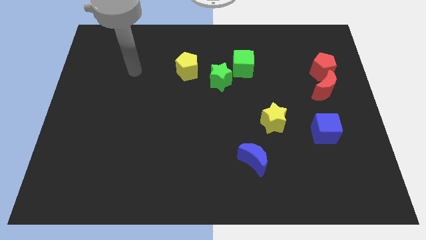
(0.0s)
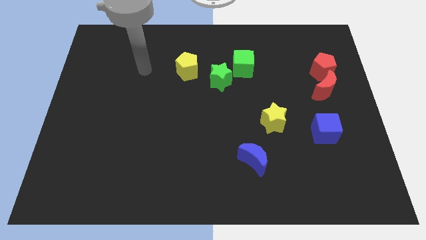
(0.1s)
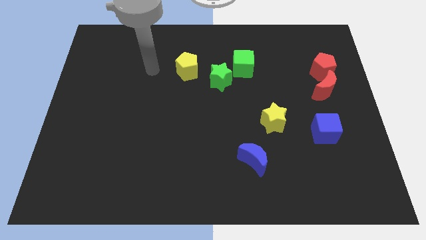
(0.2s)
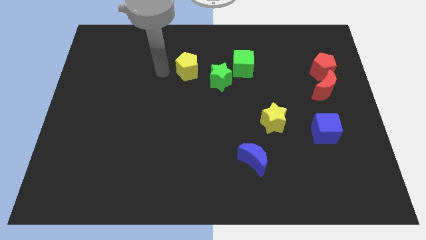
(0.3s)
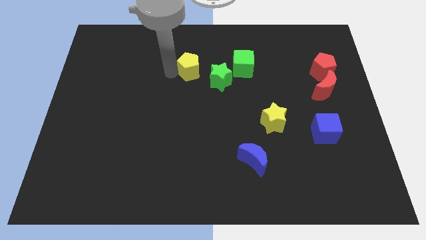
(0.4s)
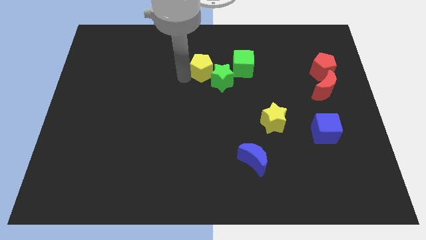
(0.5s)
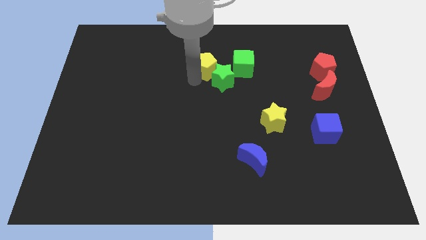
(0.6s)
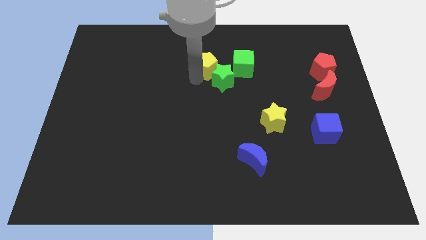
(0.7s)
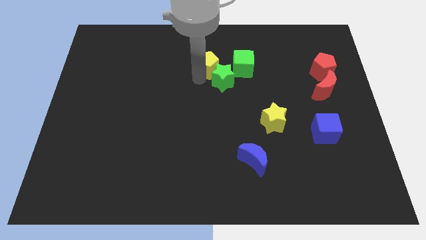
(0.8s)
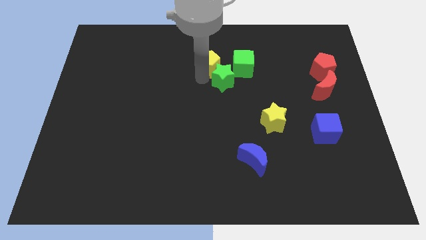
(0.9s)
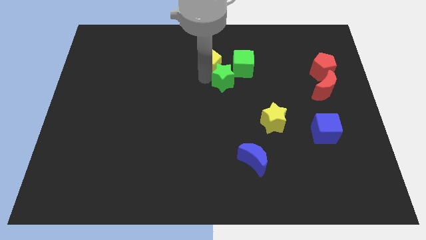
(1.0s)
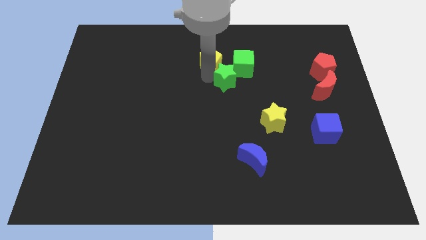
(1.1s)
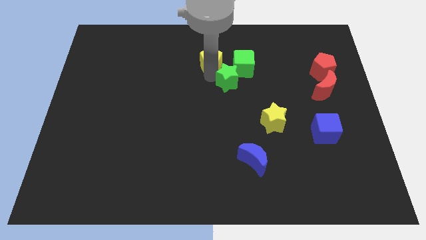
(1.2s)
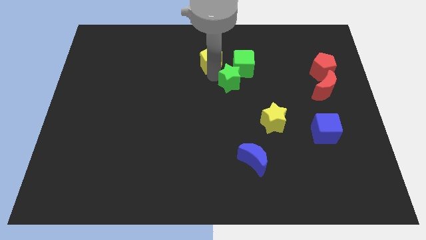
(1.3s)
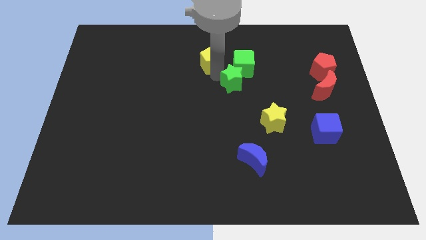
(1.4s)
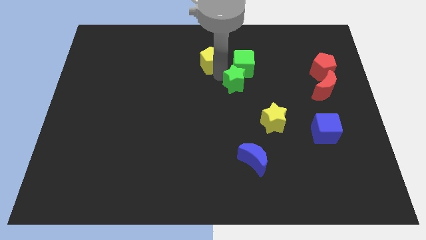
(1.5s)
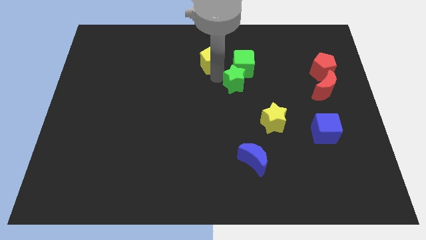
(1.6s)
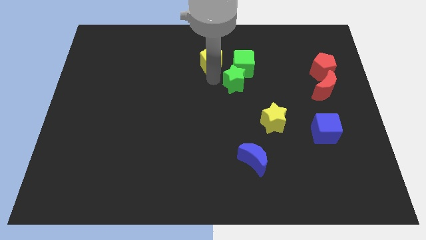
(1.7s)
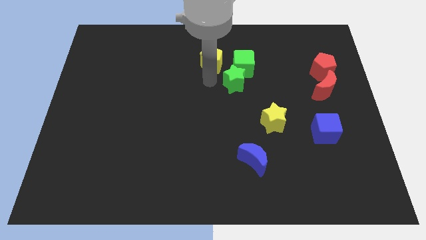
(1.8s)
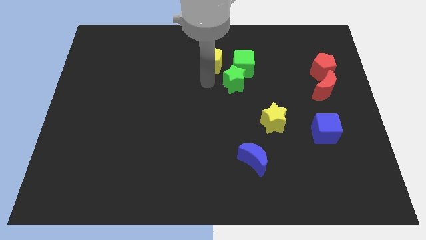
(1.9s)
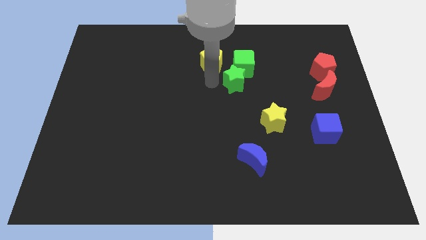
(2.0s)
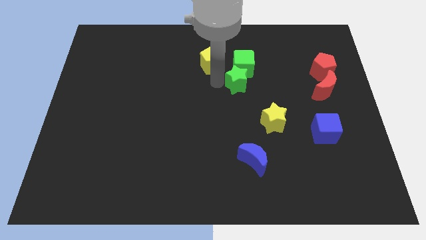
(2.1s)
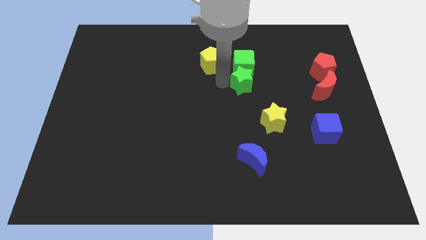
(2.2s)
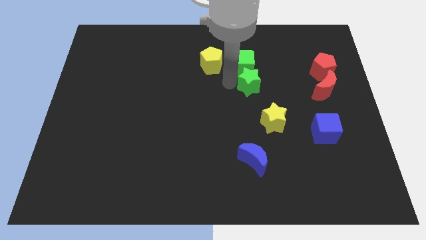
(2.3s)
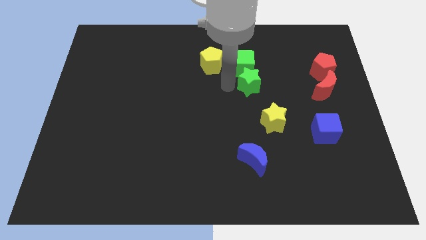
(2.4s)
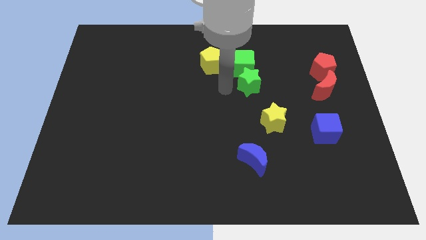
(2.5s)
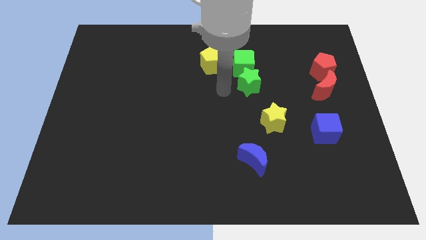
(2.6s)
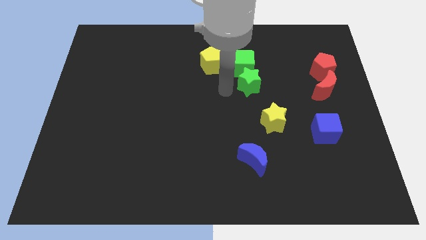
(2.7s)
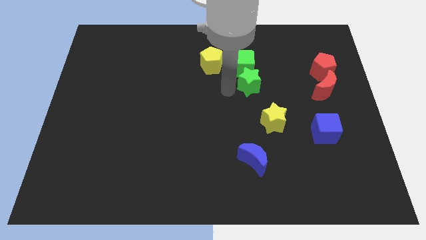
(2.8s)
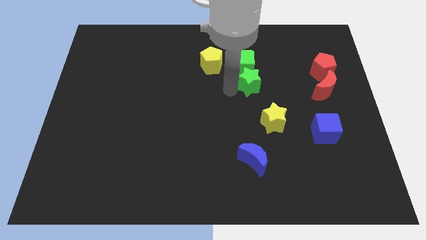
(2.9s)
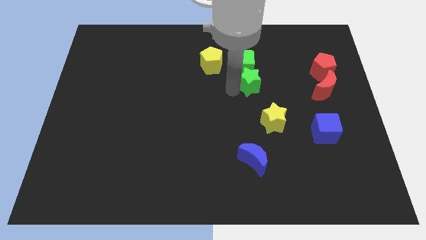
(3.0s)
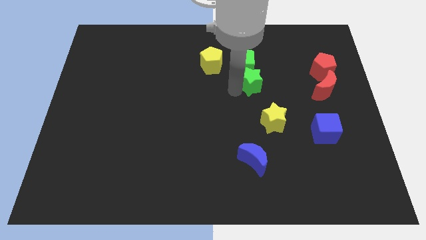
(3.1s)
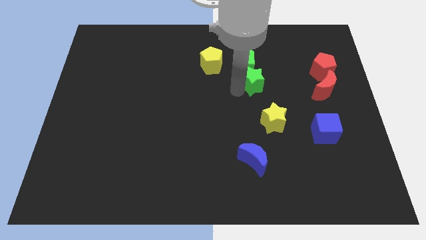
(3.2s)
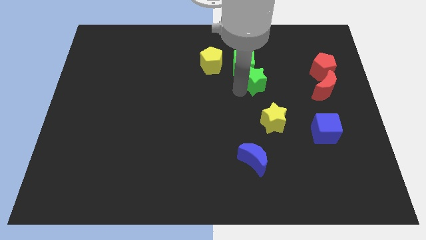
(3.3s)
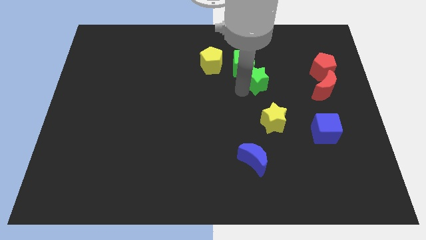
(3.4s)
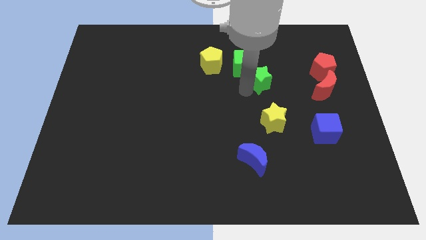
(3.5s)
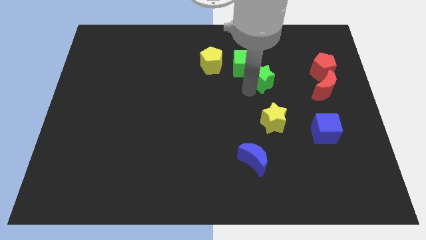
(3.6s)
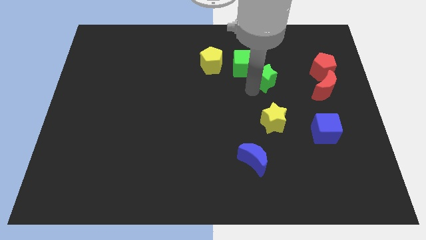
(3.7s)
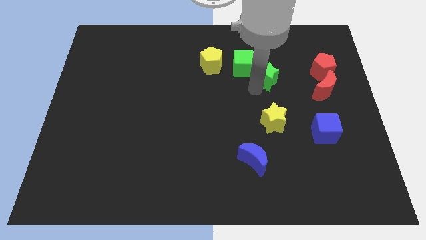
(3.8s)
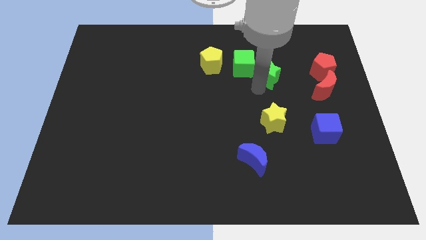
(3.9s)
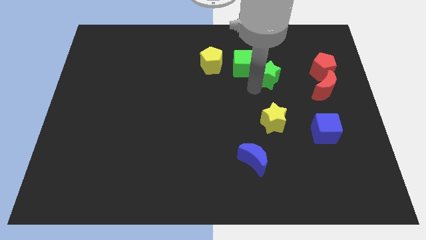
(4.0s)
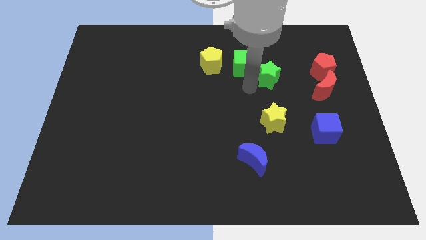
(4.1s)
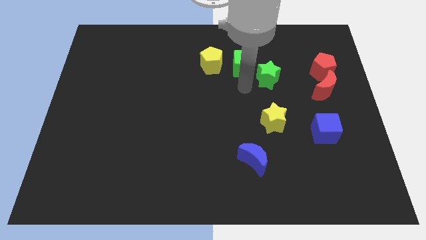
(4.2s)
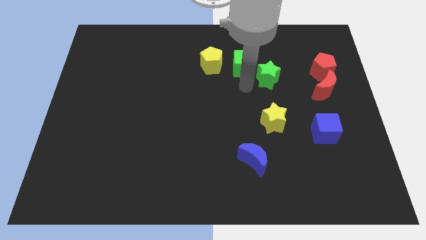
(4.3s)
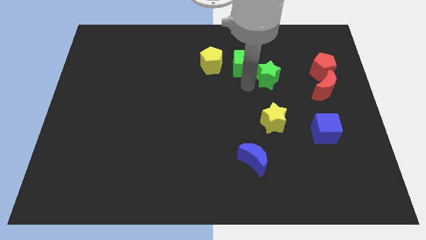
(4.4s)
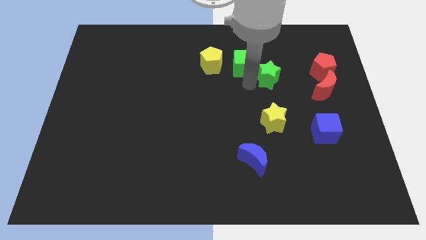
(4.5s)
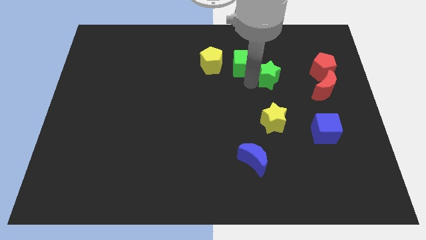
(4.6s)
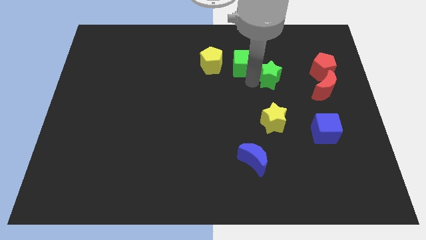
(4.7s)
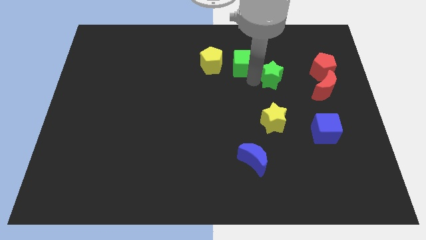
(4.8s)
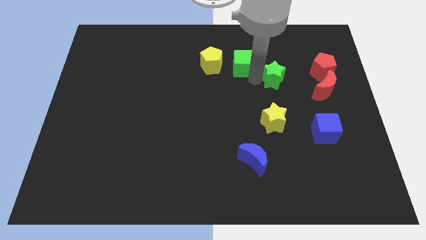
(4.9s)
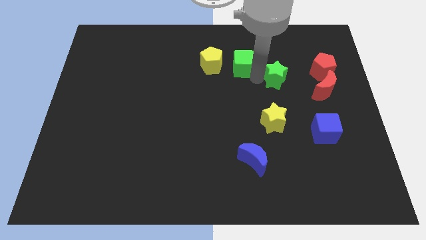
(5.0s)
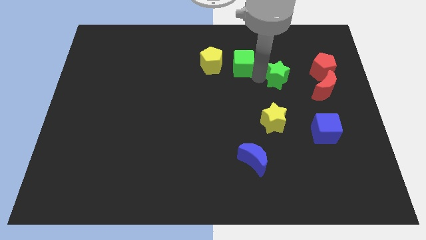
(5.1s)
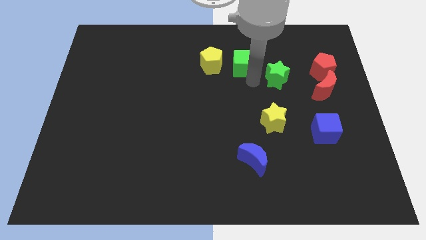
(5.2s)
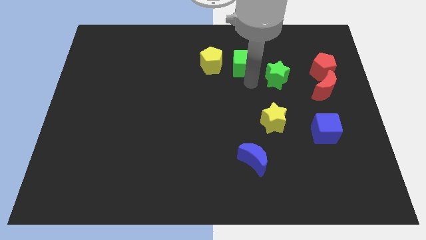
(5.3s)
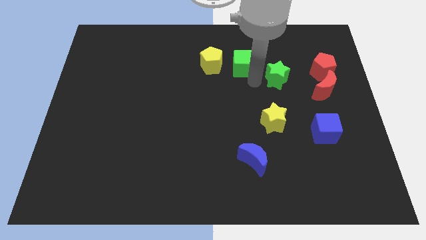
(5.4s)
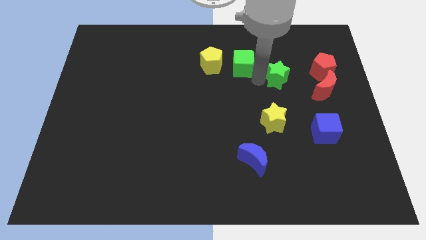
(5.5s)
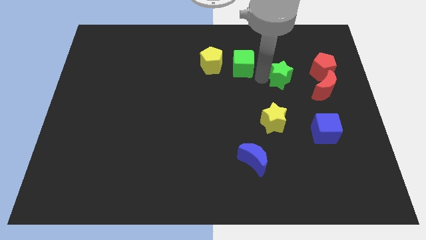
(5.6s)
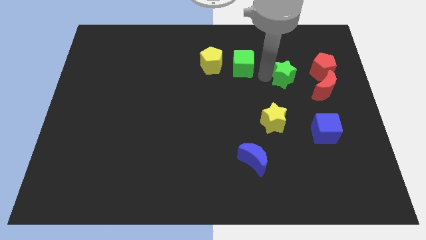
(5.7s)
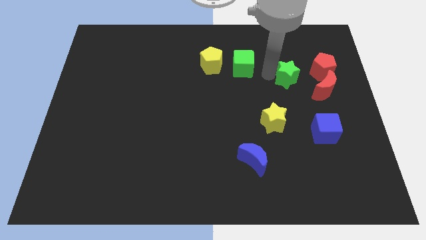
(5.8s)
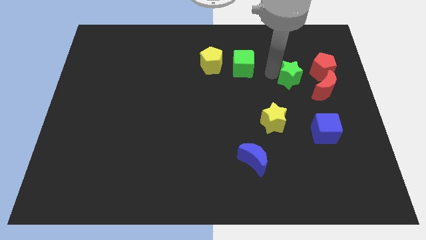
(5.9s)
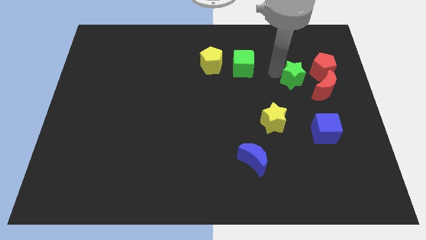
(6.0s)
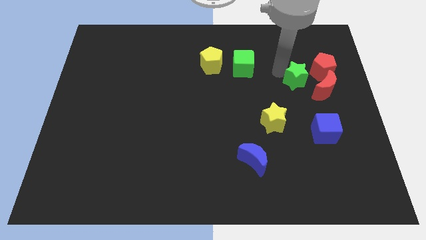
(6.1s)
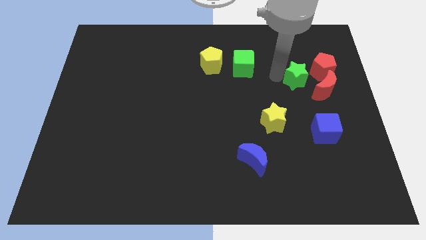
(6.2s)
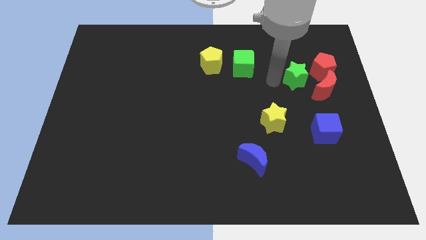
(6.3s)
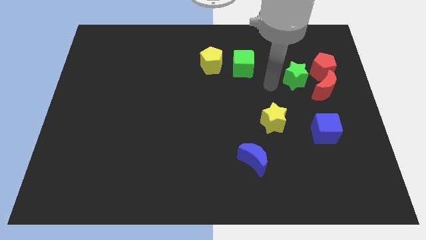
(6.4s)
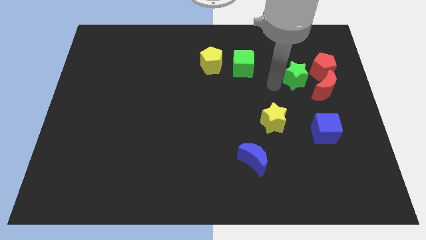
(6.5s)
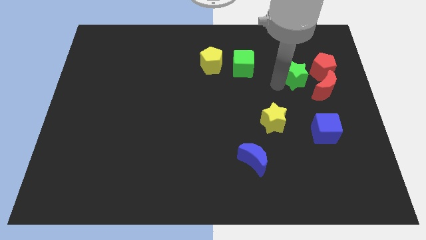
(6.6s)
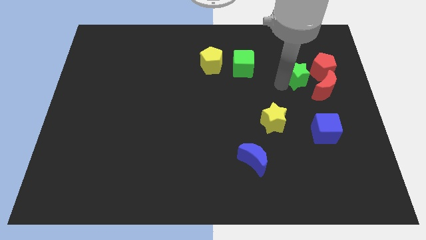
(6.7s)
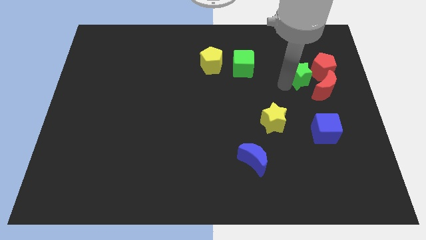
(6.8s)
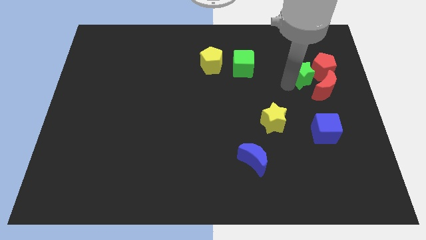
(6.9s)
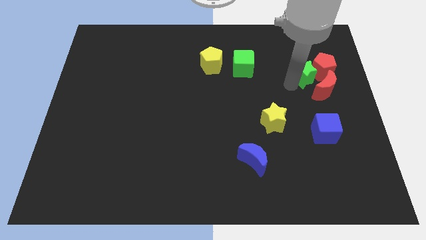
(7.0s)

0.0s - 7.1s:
push the green star next to the red pentagon

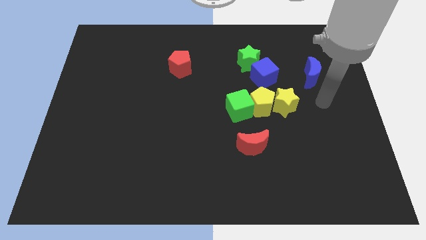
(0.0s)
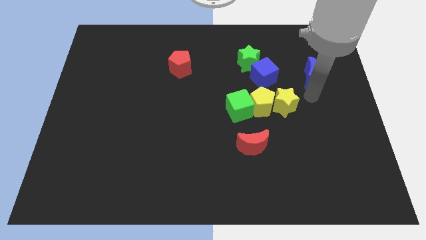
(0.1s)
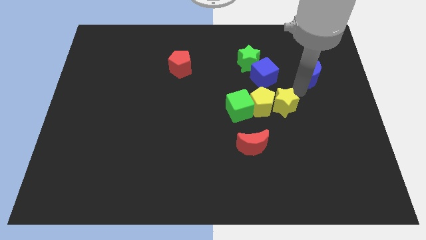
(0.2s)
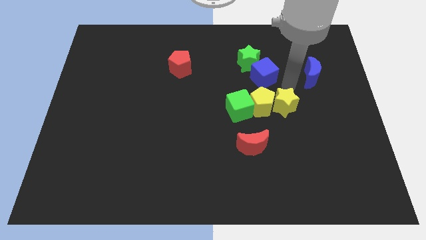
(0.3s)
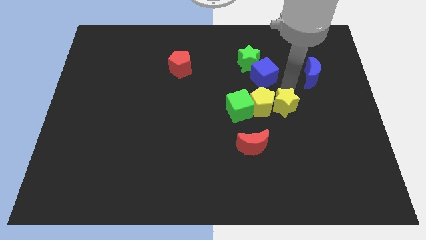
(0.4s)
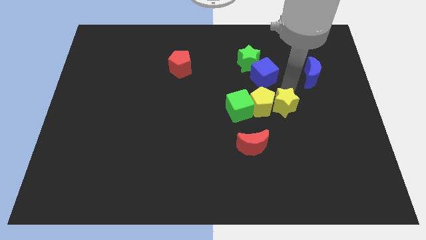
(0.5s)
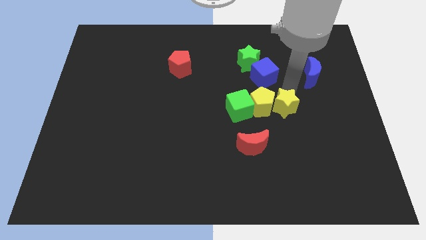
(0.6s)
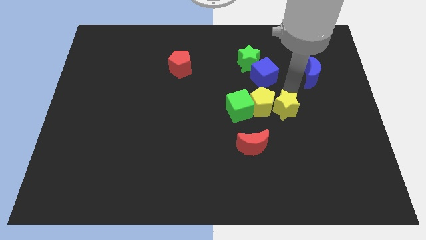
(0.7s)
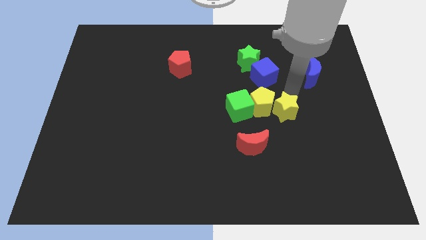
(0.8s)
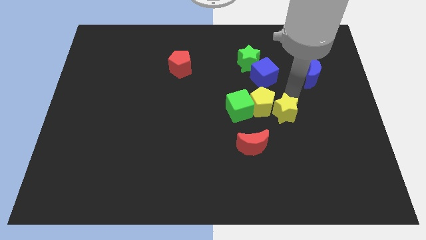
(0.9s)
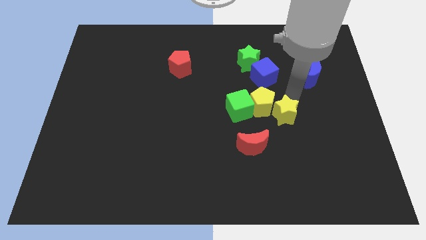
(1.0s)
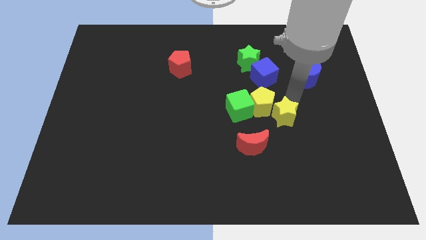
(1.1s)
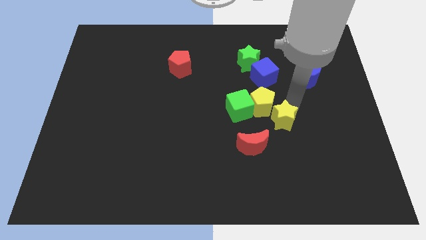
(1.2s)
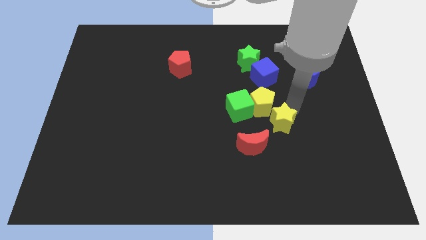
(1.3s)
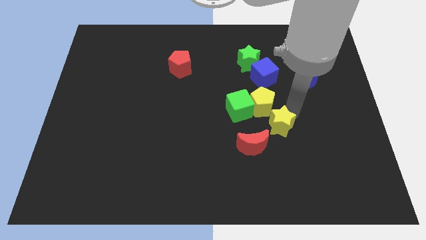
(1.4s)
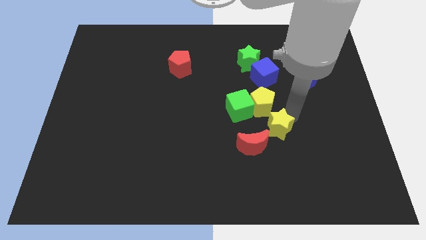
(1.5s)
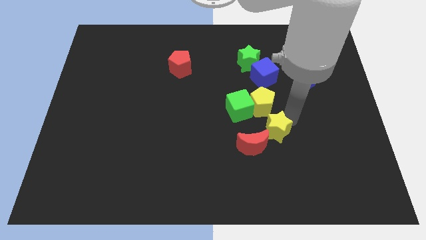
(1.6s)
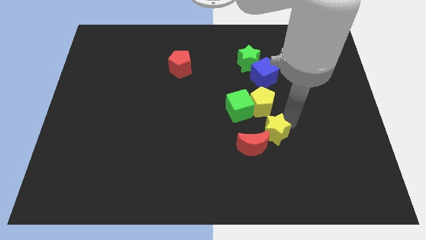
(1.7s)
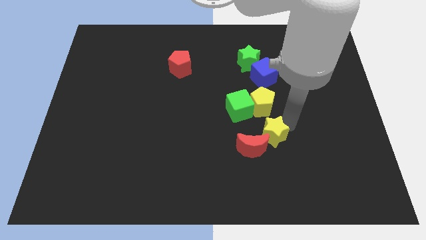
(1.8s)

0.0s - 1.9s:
slide the yellow star next to the red moon
